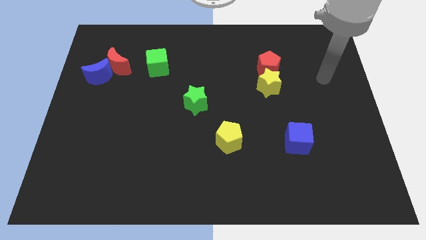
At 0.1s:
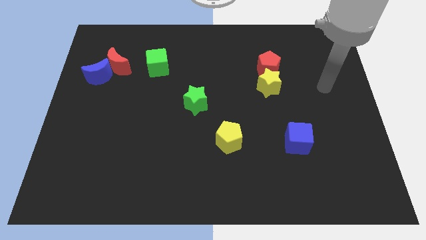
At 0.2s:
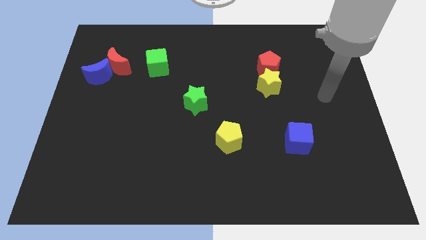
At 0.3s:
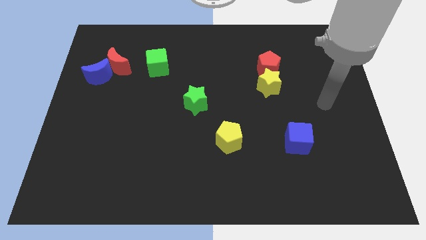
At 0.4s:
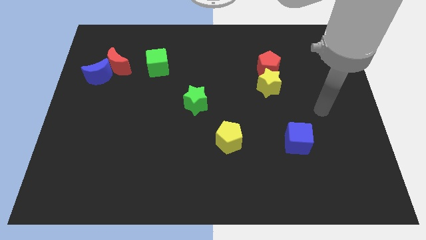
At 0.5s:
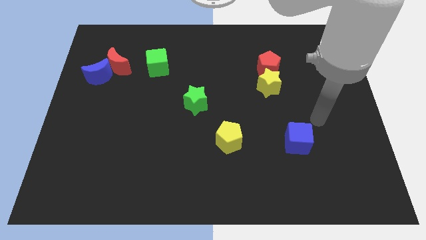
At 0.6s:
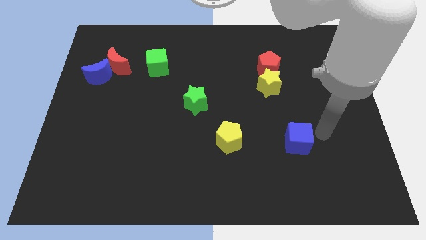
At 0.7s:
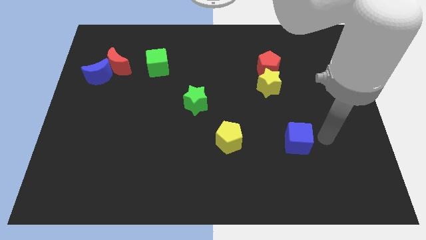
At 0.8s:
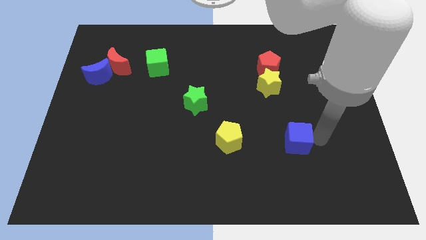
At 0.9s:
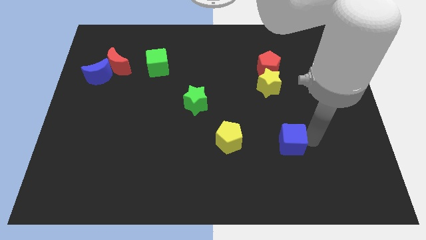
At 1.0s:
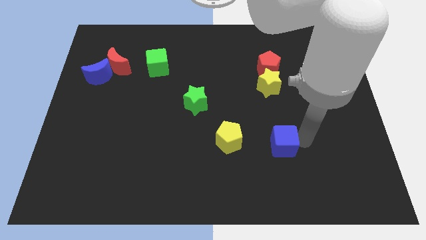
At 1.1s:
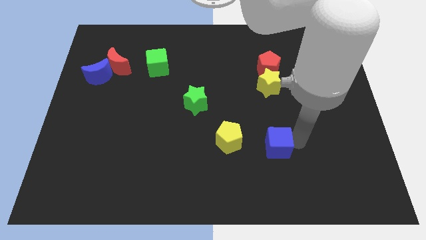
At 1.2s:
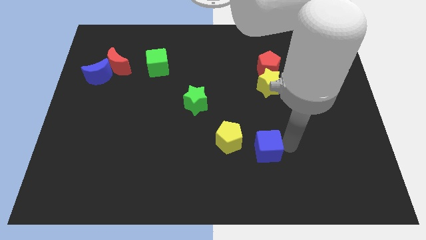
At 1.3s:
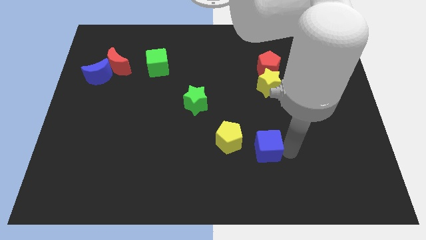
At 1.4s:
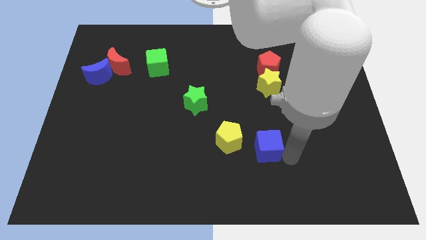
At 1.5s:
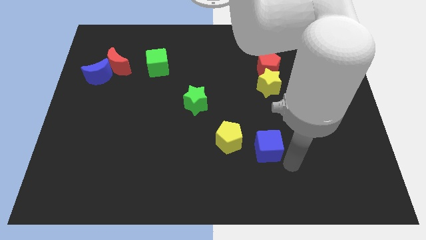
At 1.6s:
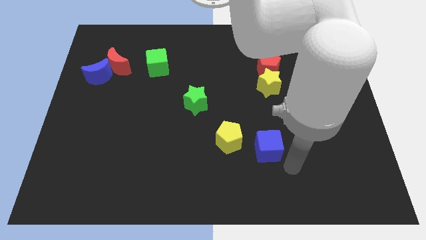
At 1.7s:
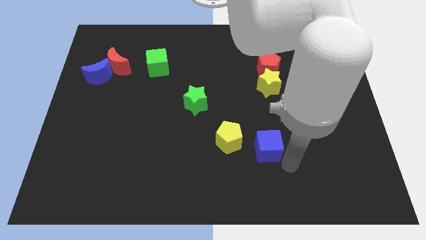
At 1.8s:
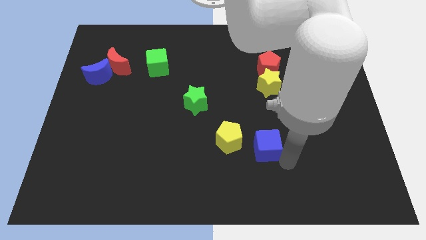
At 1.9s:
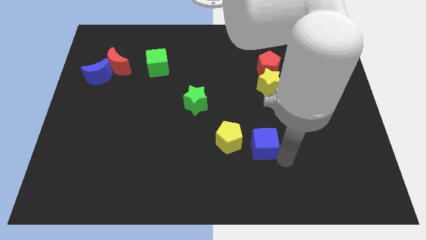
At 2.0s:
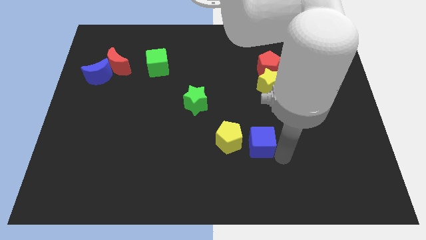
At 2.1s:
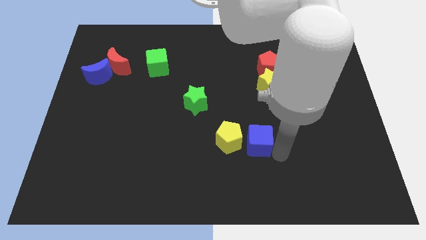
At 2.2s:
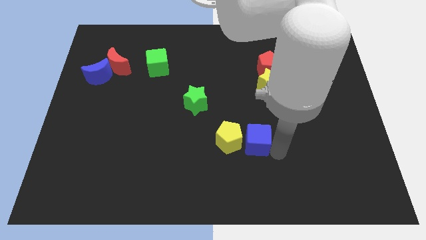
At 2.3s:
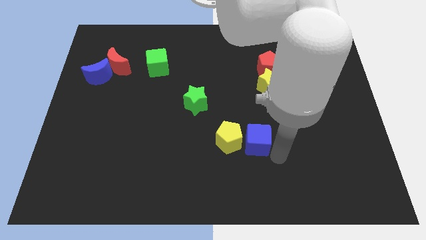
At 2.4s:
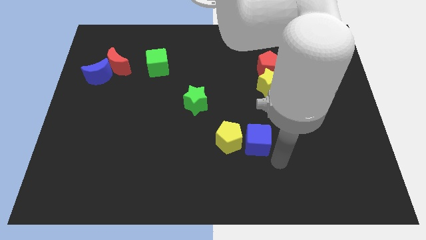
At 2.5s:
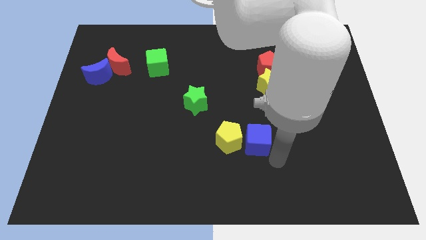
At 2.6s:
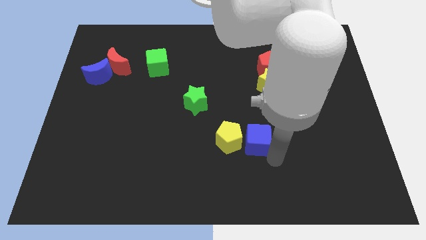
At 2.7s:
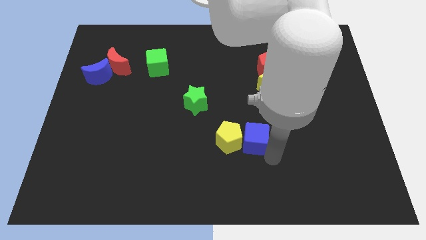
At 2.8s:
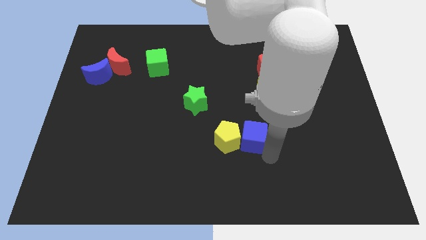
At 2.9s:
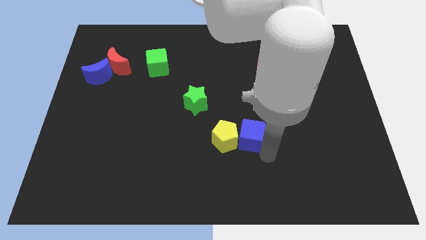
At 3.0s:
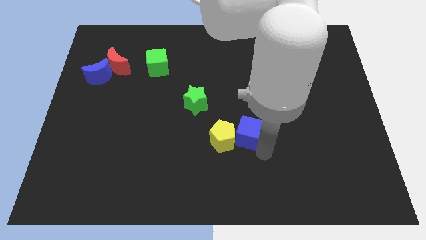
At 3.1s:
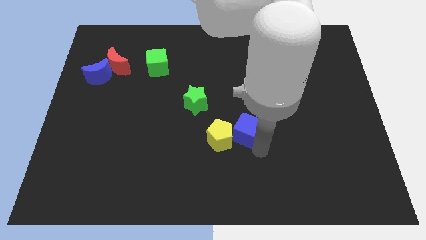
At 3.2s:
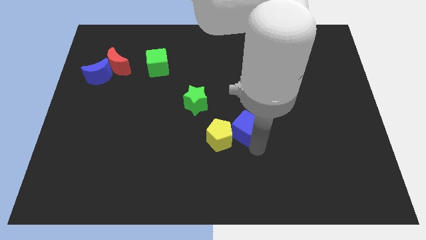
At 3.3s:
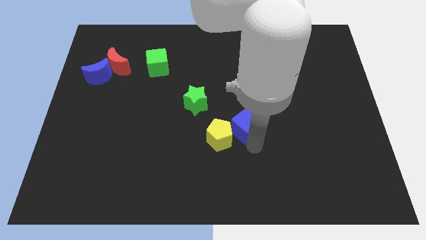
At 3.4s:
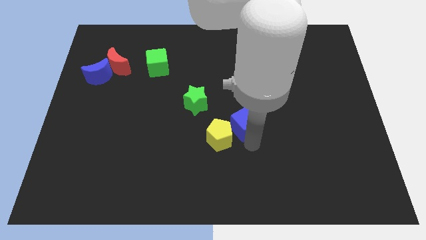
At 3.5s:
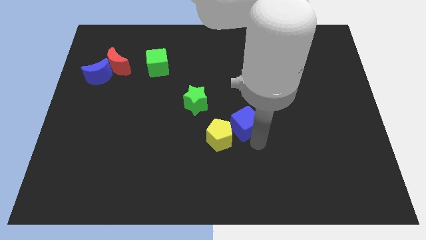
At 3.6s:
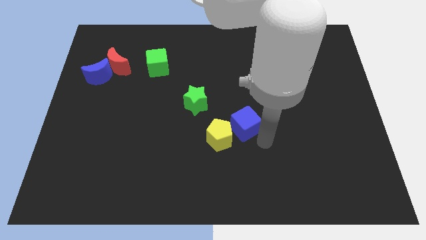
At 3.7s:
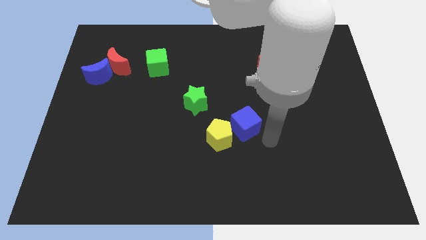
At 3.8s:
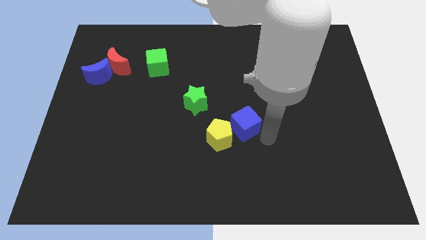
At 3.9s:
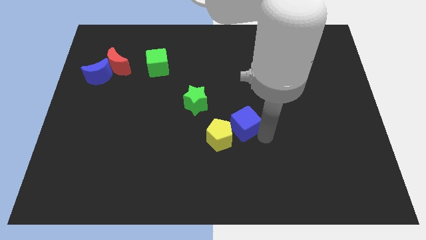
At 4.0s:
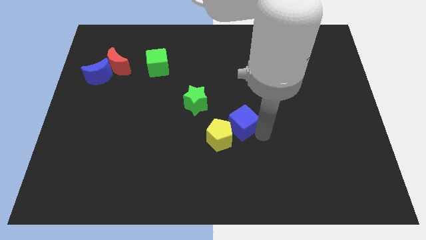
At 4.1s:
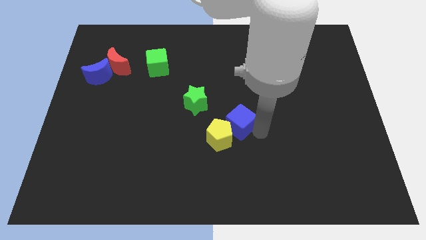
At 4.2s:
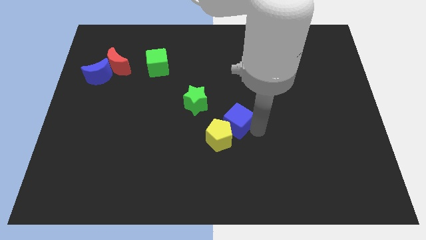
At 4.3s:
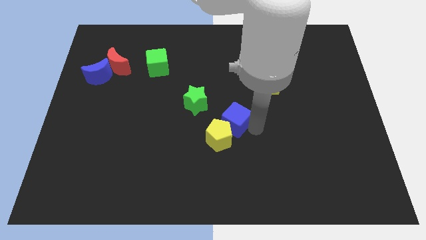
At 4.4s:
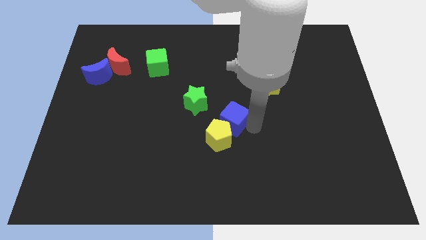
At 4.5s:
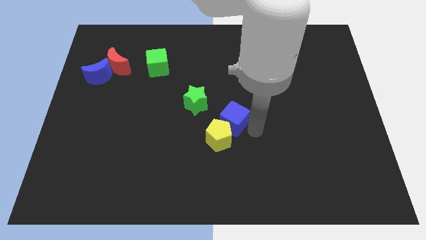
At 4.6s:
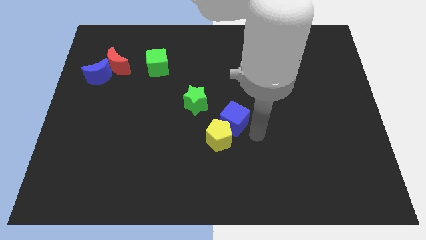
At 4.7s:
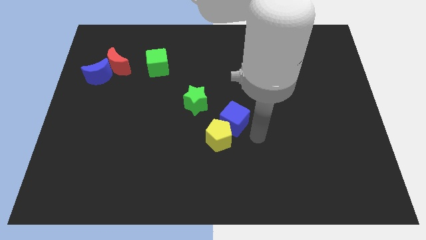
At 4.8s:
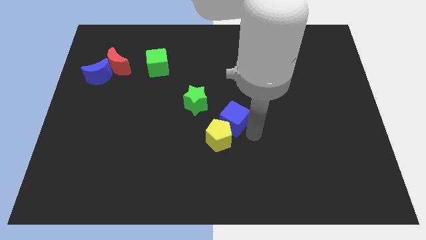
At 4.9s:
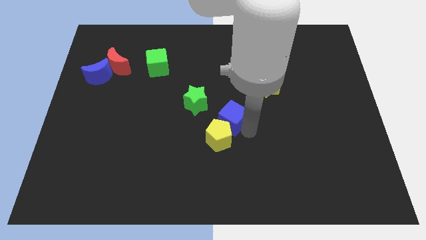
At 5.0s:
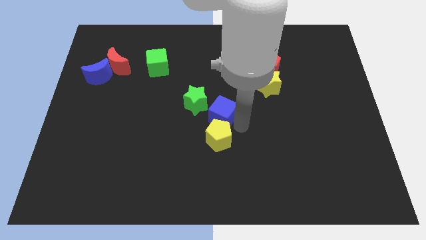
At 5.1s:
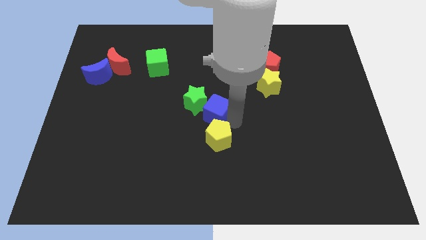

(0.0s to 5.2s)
slide the blue cube next to the green star
